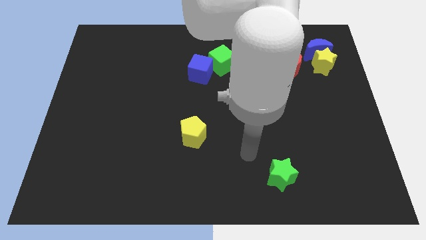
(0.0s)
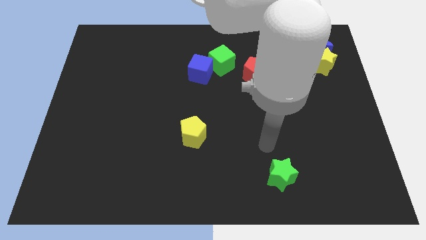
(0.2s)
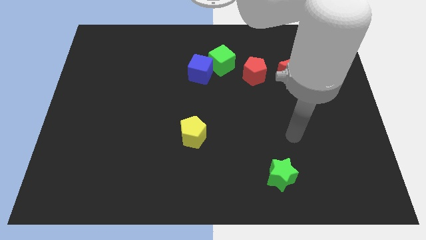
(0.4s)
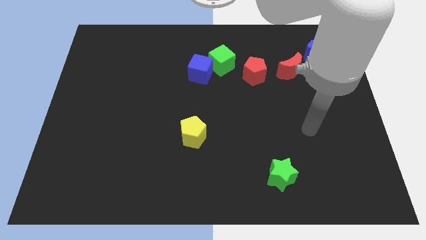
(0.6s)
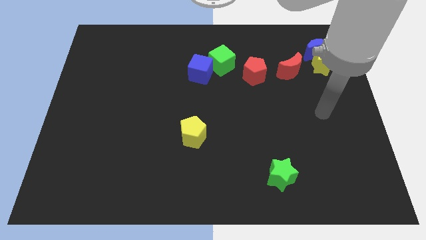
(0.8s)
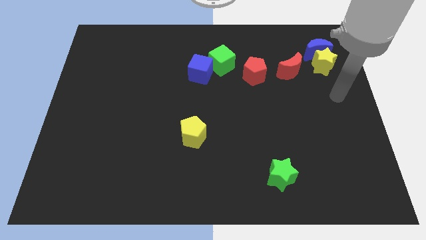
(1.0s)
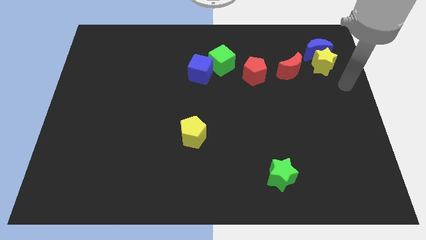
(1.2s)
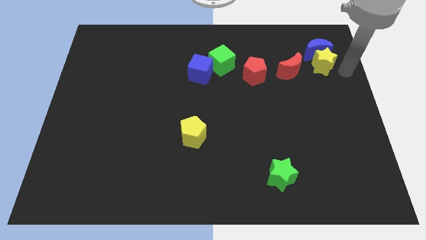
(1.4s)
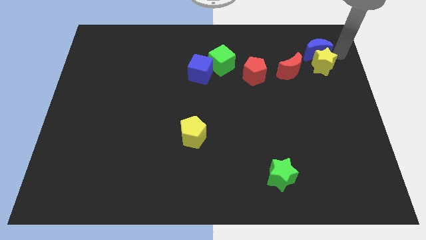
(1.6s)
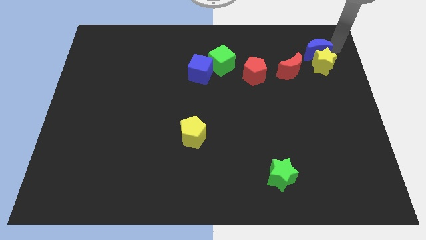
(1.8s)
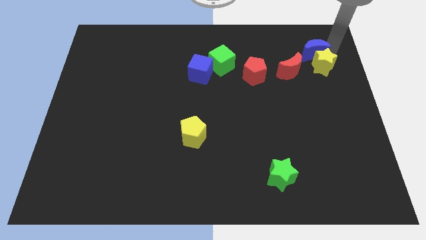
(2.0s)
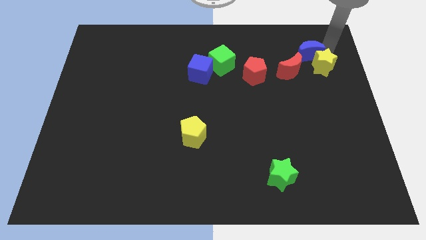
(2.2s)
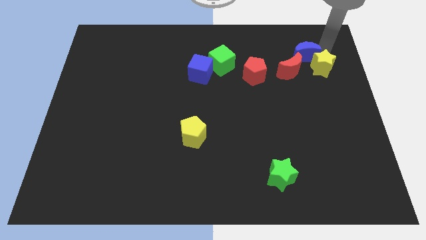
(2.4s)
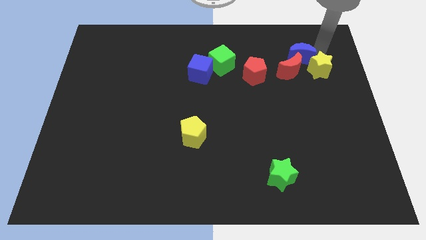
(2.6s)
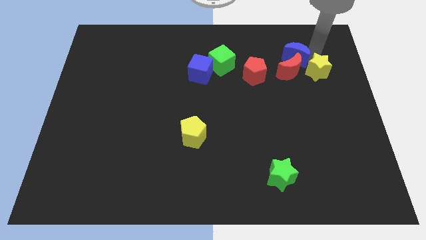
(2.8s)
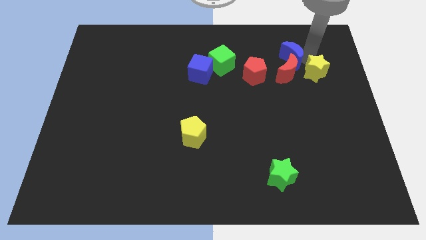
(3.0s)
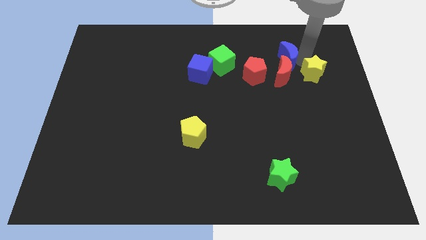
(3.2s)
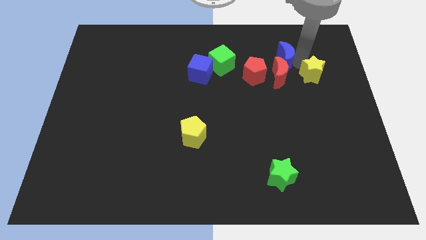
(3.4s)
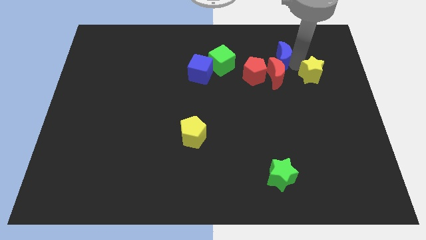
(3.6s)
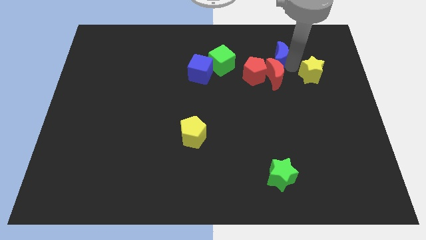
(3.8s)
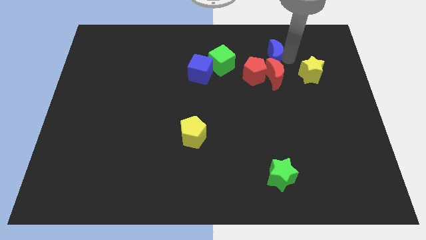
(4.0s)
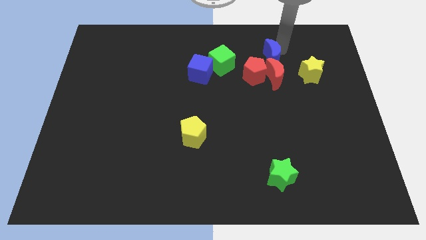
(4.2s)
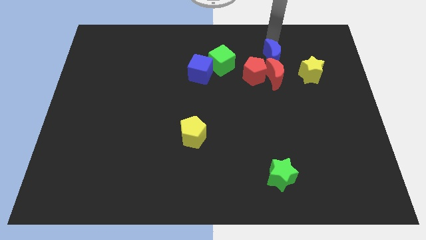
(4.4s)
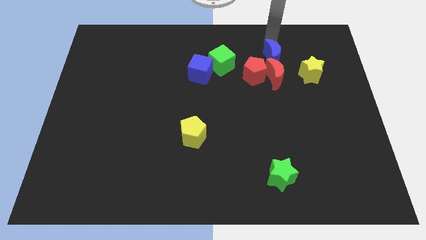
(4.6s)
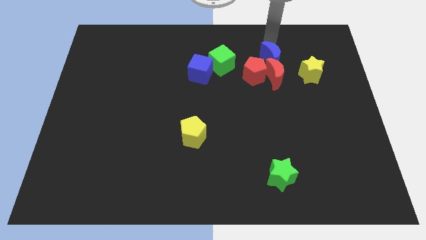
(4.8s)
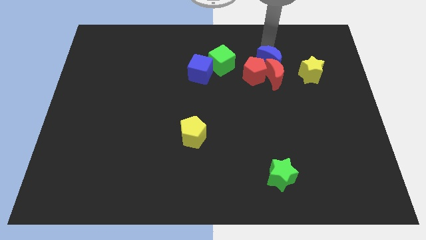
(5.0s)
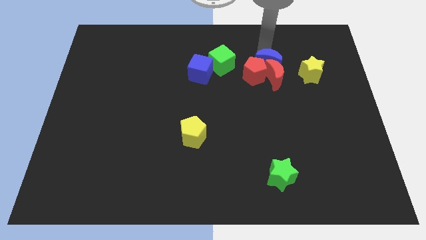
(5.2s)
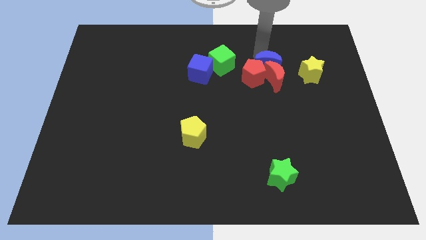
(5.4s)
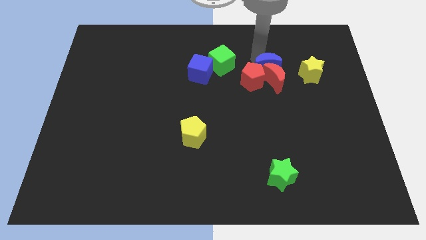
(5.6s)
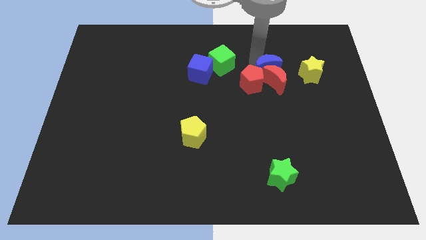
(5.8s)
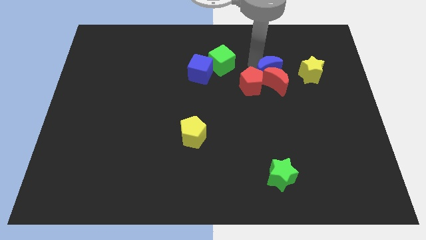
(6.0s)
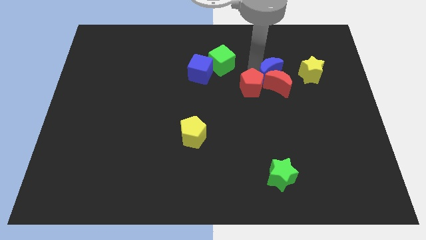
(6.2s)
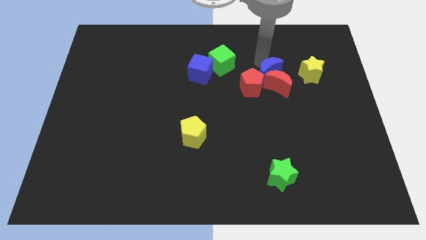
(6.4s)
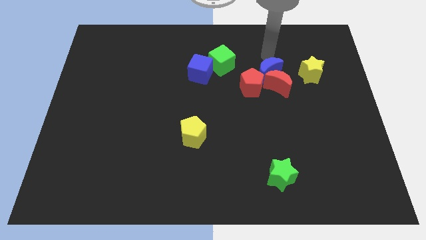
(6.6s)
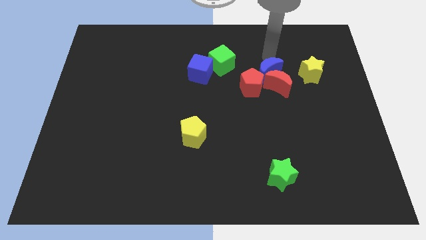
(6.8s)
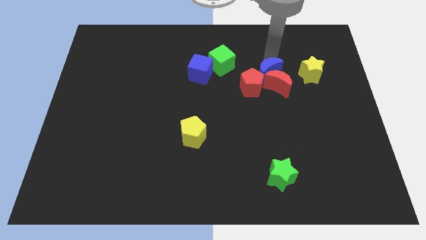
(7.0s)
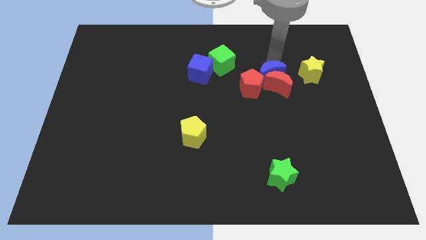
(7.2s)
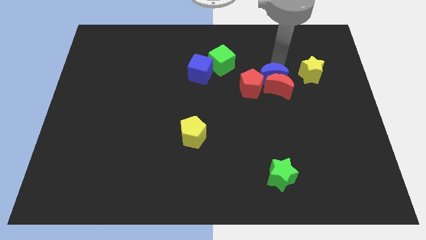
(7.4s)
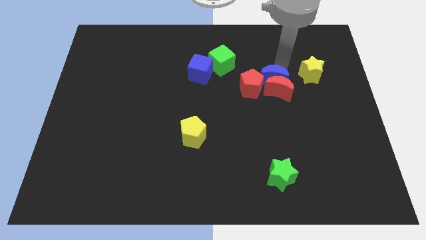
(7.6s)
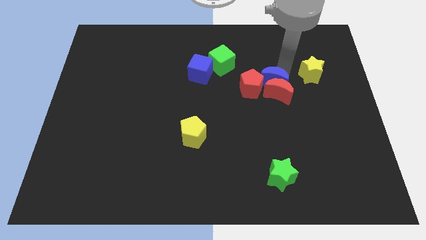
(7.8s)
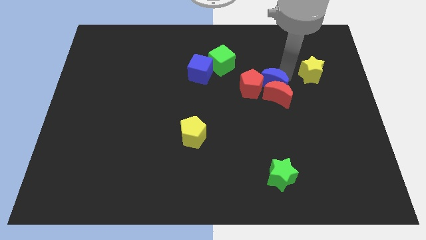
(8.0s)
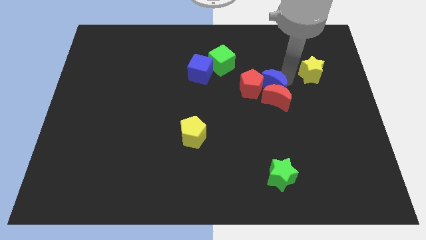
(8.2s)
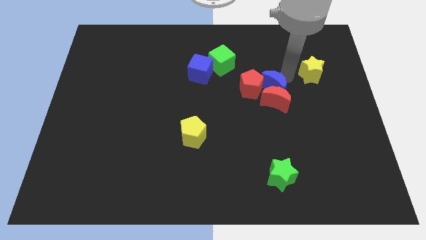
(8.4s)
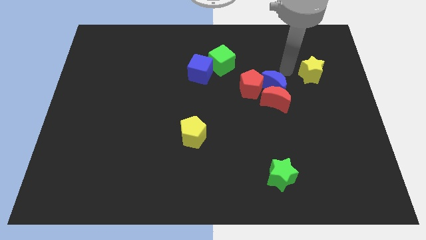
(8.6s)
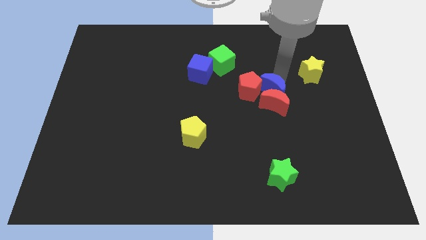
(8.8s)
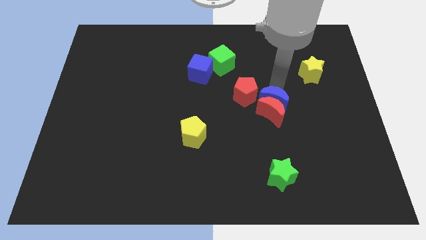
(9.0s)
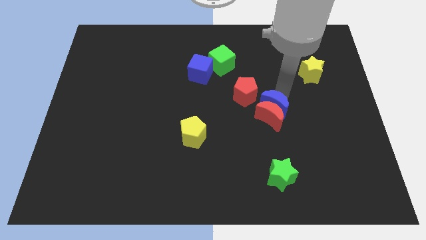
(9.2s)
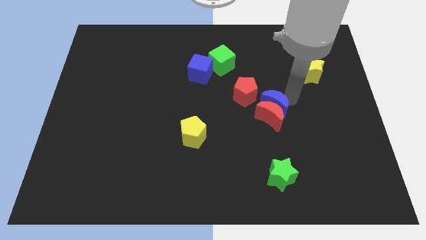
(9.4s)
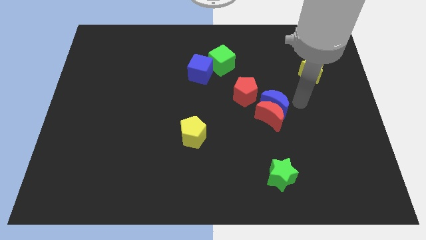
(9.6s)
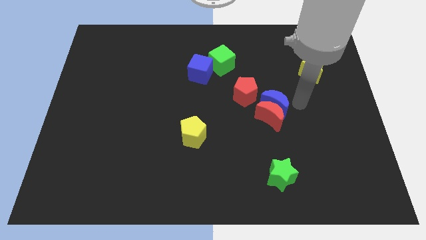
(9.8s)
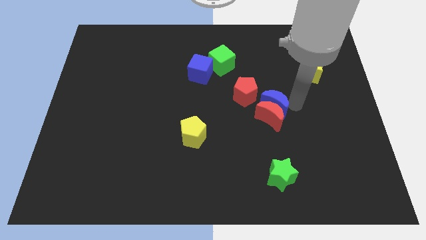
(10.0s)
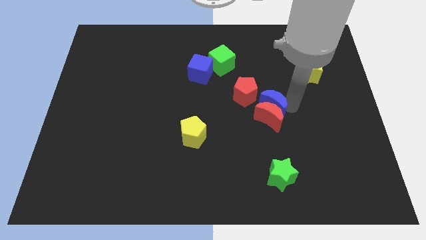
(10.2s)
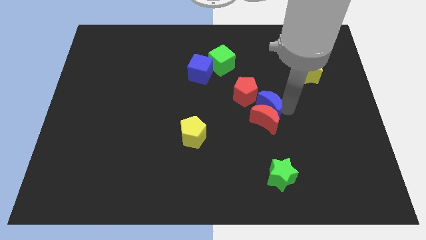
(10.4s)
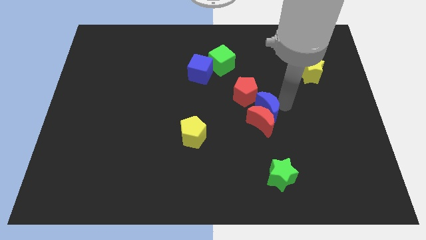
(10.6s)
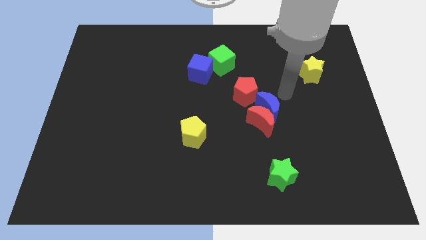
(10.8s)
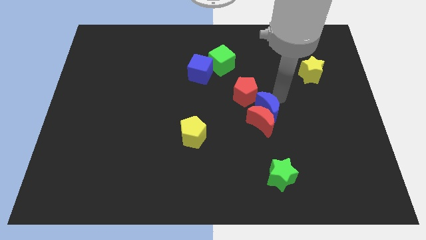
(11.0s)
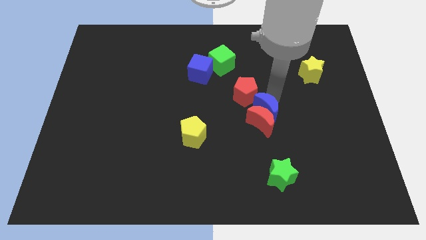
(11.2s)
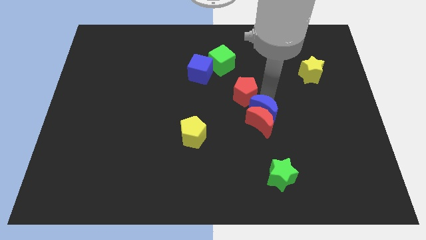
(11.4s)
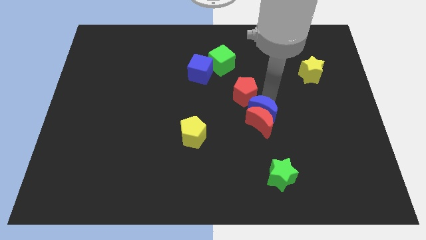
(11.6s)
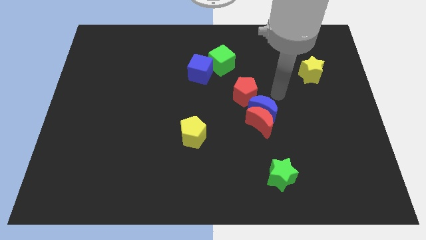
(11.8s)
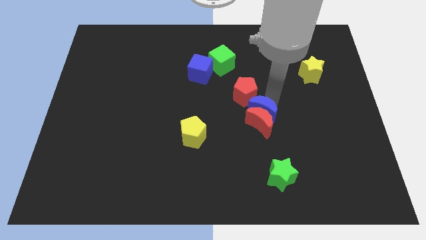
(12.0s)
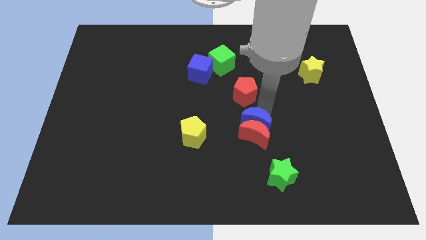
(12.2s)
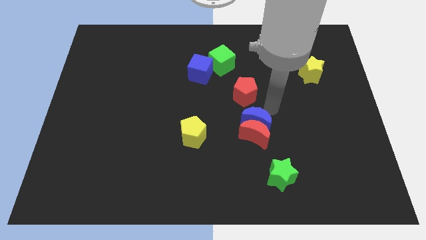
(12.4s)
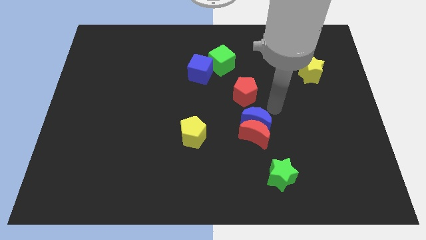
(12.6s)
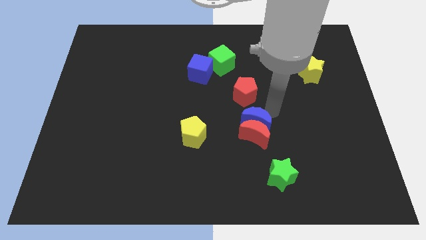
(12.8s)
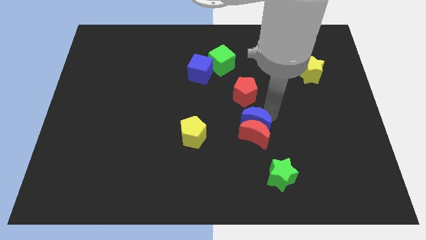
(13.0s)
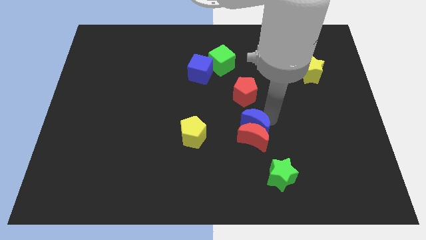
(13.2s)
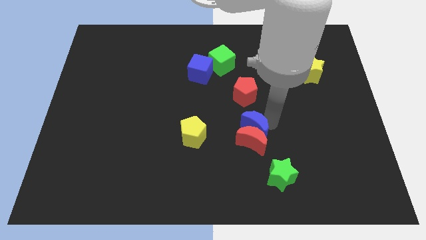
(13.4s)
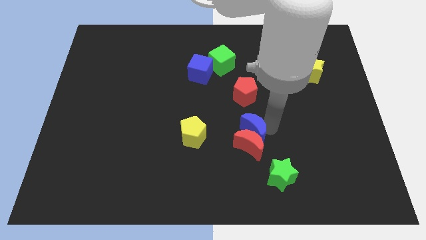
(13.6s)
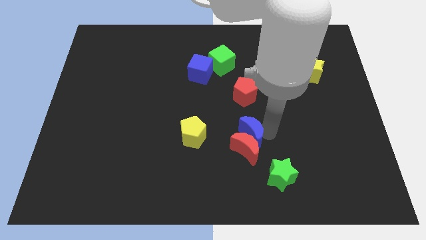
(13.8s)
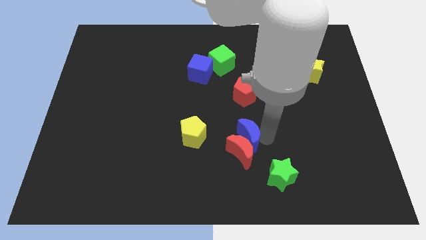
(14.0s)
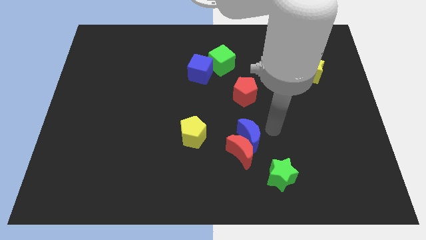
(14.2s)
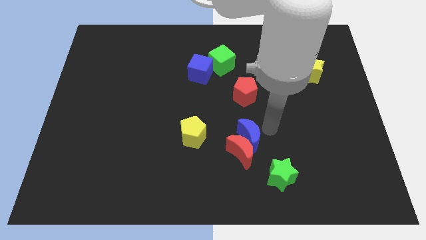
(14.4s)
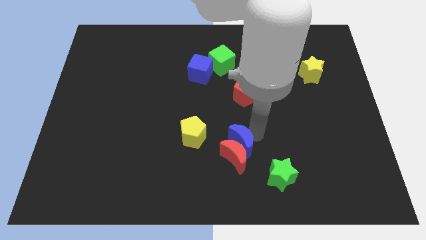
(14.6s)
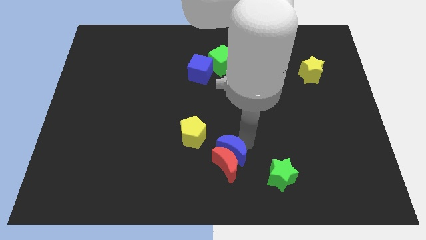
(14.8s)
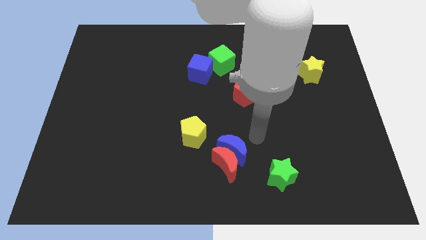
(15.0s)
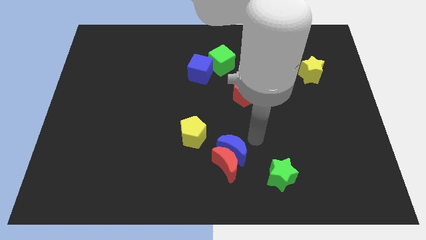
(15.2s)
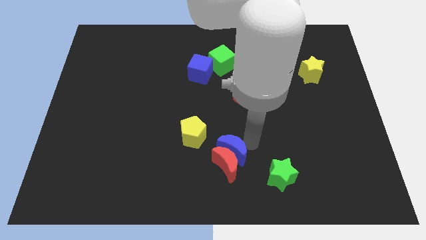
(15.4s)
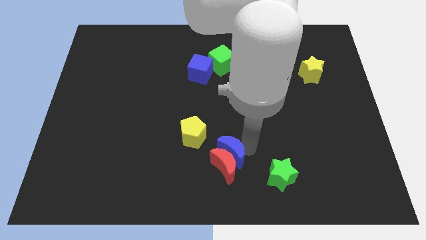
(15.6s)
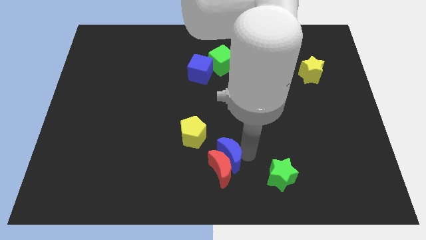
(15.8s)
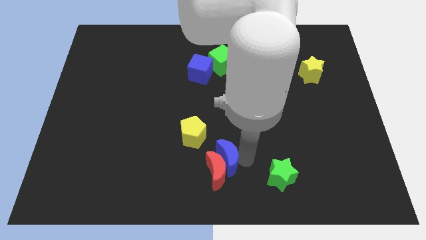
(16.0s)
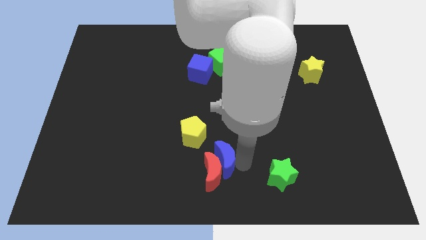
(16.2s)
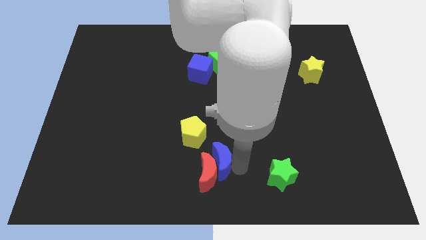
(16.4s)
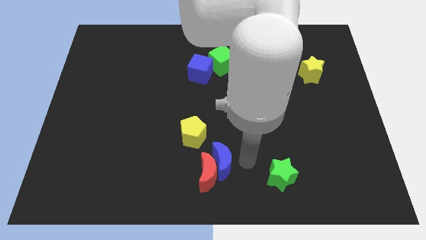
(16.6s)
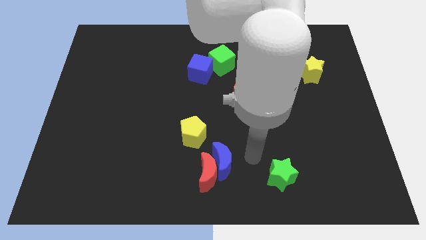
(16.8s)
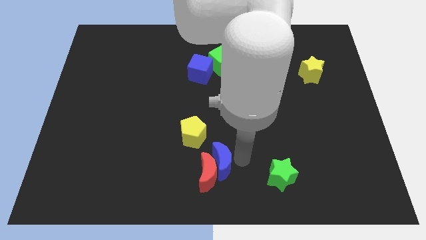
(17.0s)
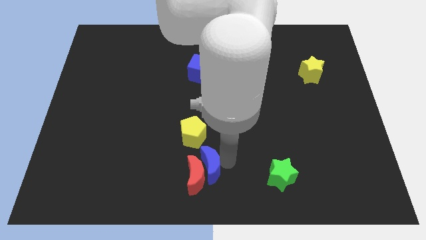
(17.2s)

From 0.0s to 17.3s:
move the blue moon to the bottom side of the yellow pentagon
